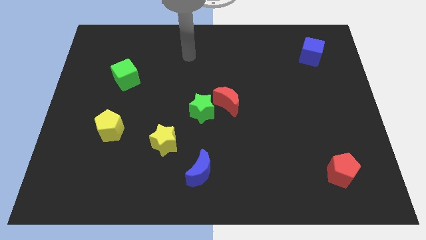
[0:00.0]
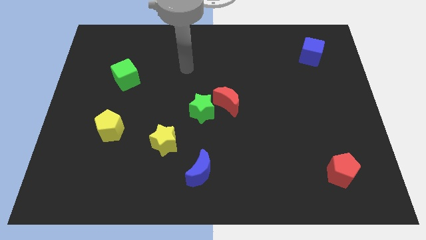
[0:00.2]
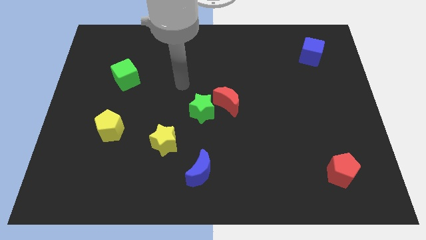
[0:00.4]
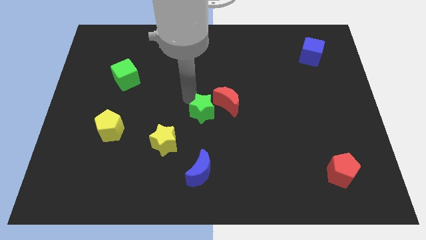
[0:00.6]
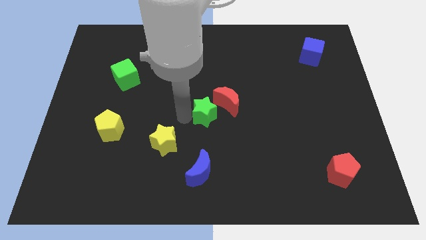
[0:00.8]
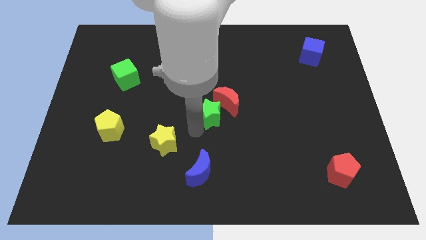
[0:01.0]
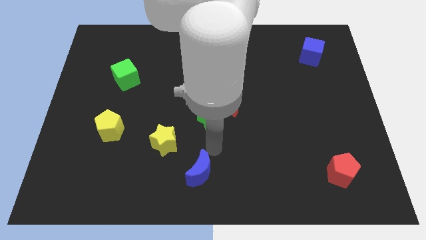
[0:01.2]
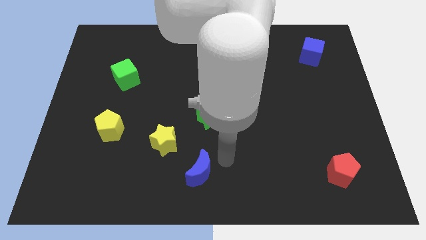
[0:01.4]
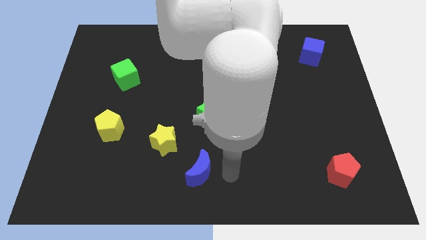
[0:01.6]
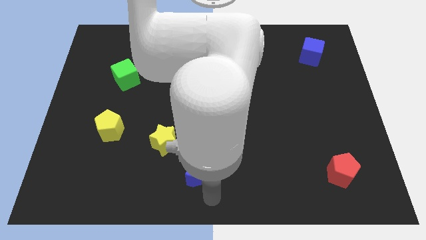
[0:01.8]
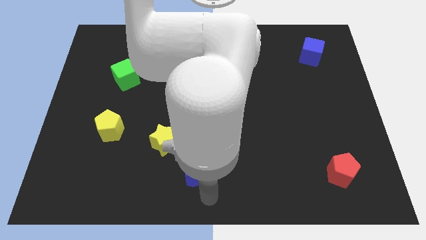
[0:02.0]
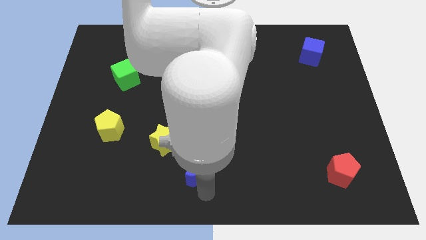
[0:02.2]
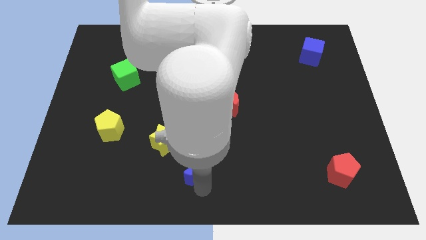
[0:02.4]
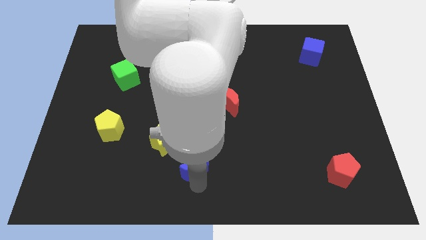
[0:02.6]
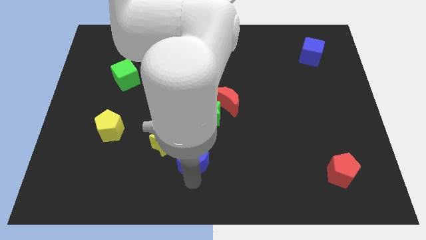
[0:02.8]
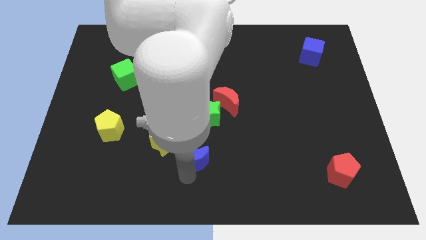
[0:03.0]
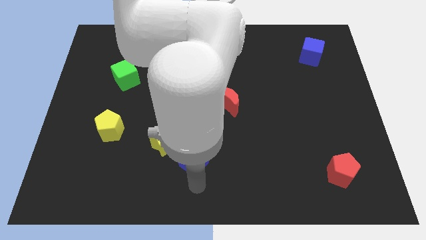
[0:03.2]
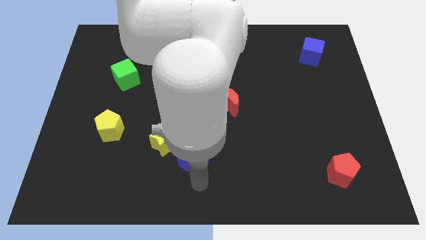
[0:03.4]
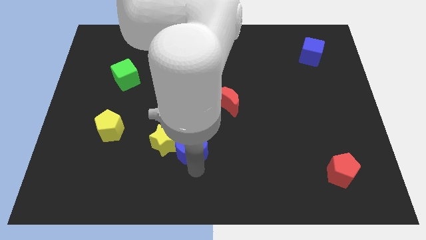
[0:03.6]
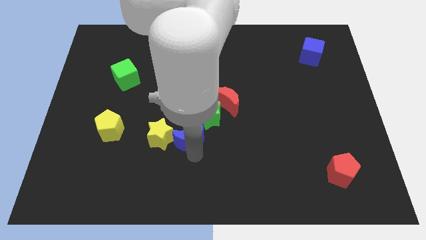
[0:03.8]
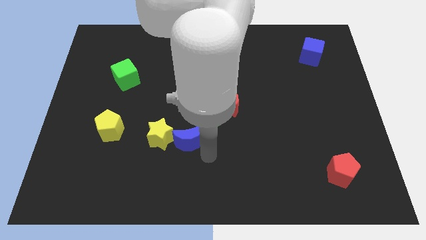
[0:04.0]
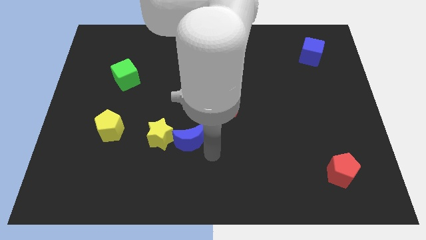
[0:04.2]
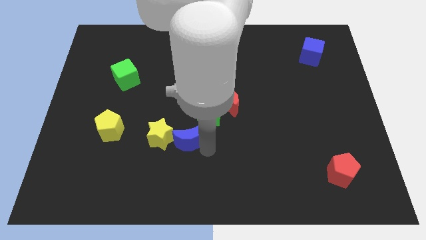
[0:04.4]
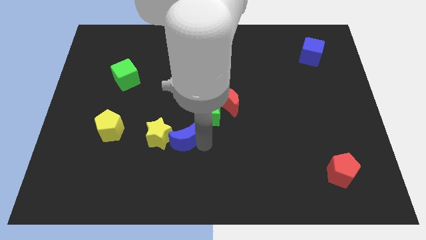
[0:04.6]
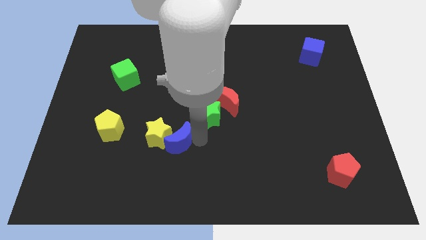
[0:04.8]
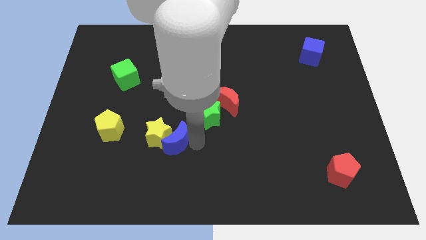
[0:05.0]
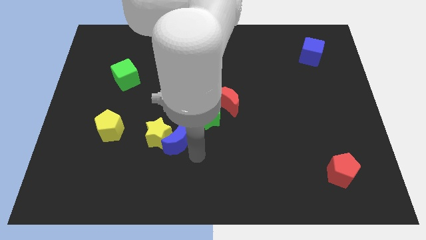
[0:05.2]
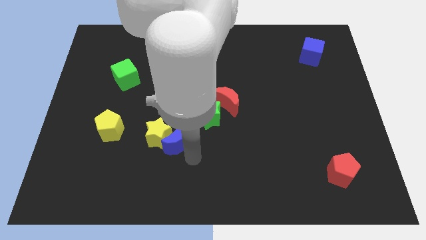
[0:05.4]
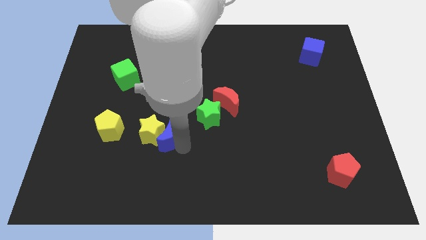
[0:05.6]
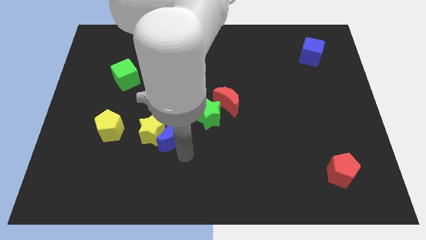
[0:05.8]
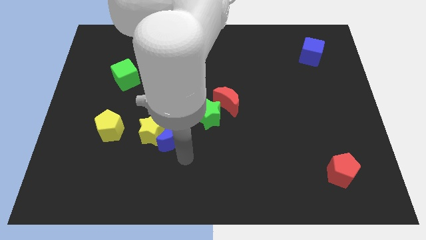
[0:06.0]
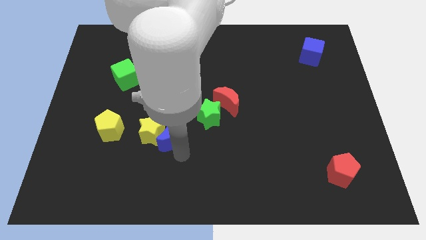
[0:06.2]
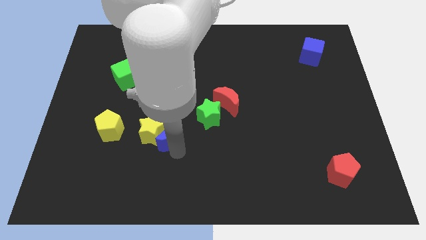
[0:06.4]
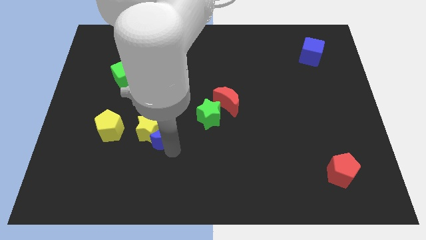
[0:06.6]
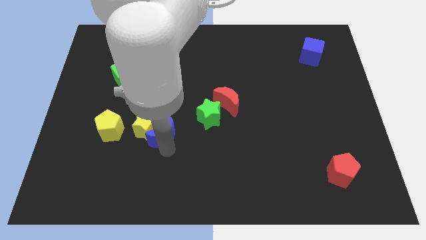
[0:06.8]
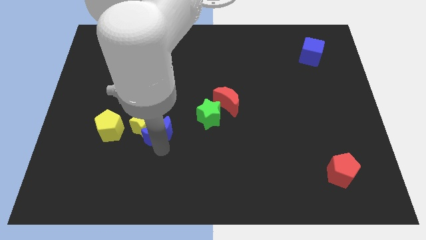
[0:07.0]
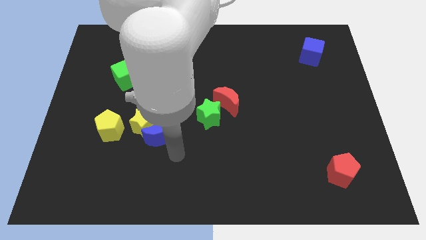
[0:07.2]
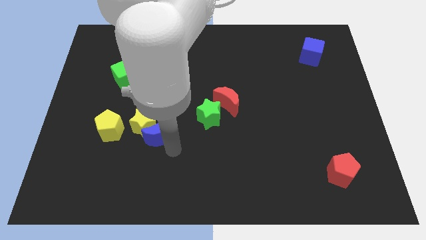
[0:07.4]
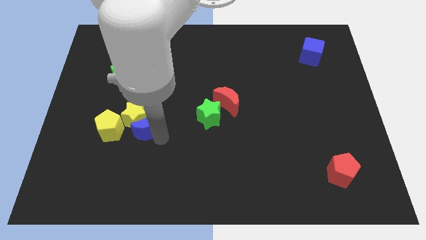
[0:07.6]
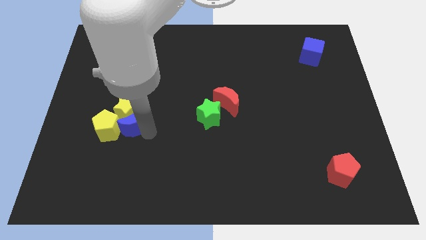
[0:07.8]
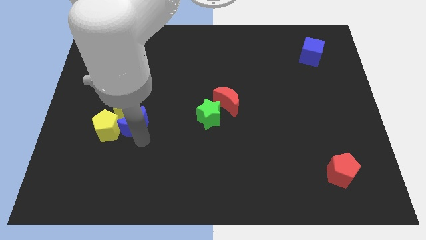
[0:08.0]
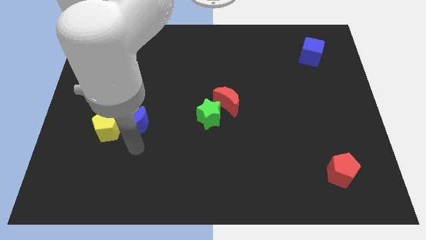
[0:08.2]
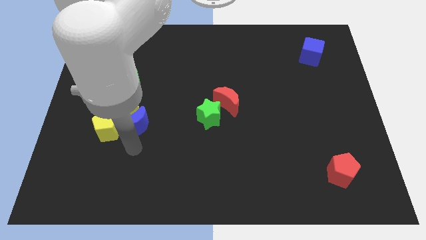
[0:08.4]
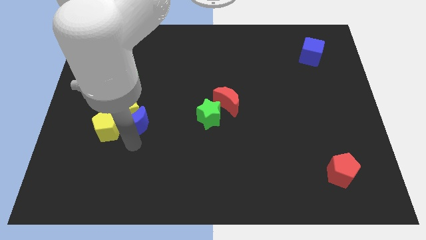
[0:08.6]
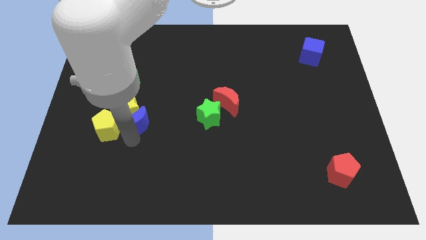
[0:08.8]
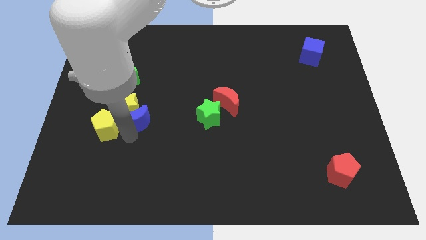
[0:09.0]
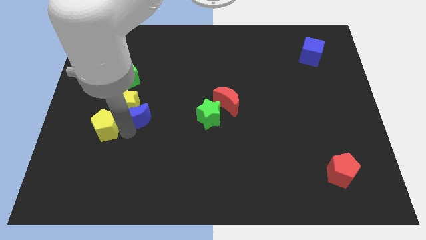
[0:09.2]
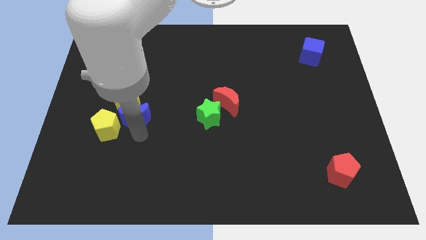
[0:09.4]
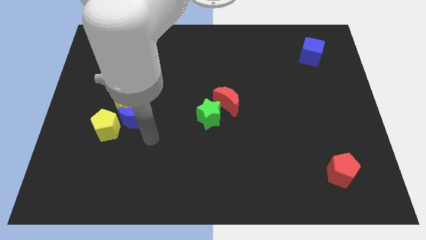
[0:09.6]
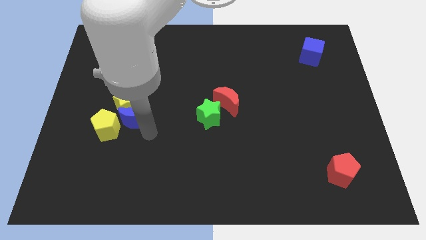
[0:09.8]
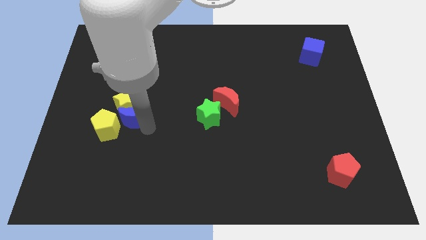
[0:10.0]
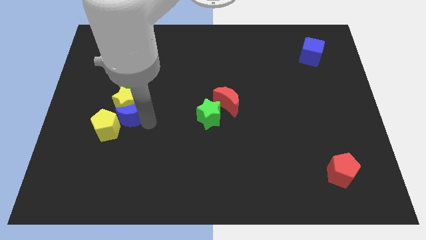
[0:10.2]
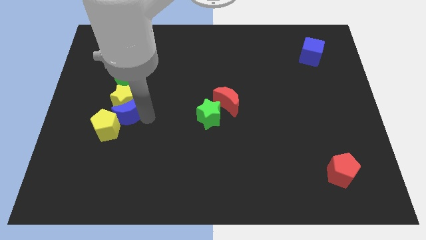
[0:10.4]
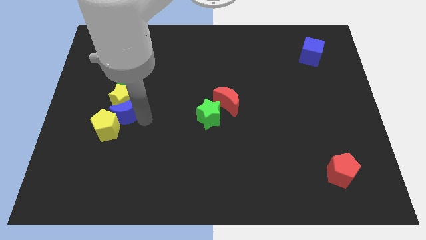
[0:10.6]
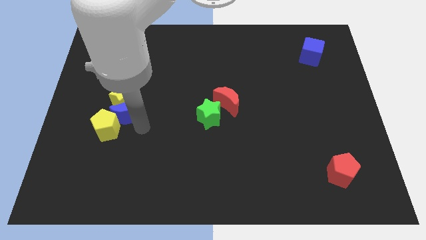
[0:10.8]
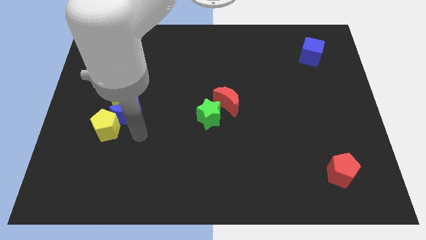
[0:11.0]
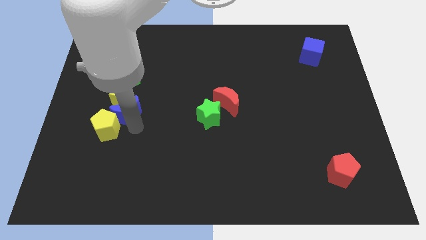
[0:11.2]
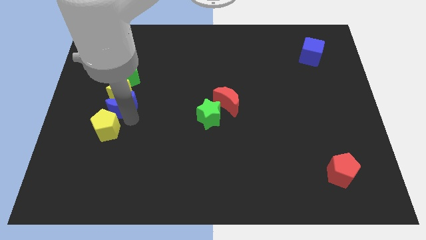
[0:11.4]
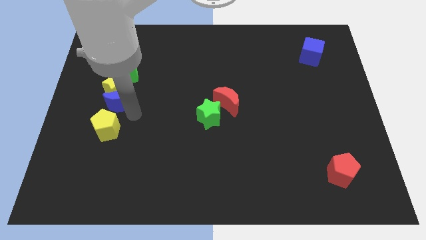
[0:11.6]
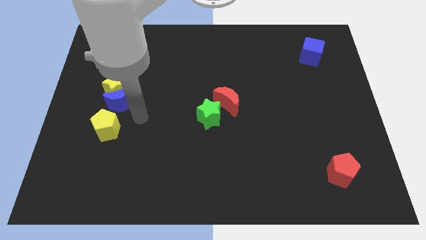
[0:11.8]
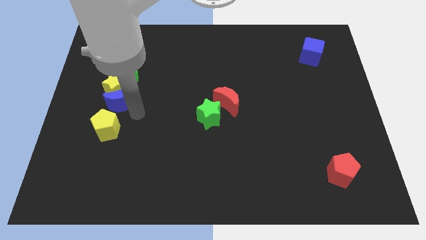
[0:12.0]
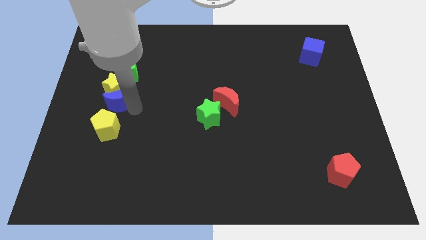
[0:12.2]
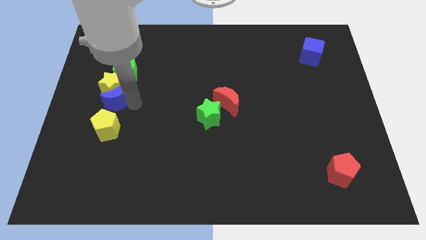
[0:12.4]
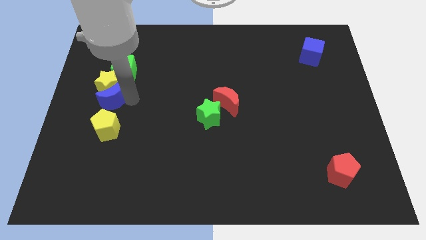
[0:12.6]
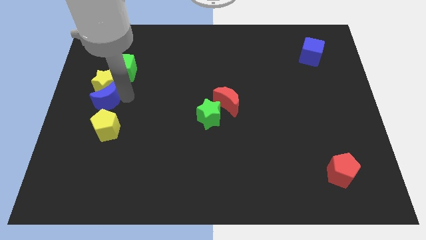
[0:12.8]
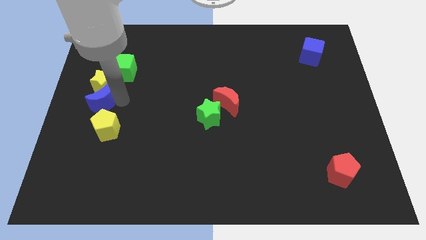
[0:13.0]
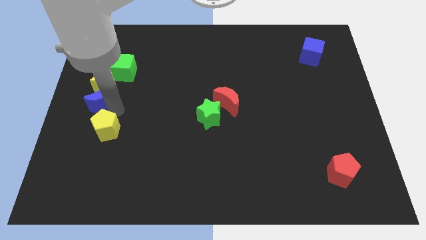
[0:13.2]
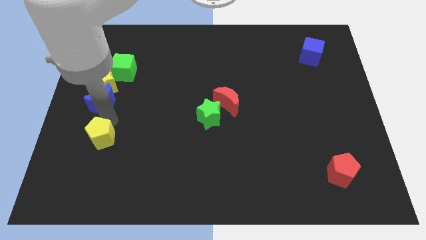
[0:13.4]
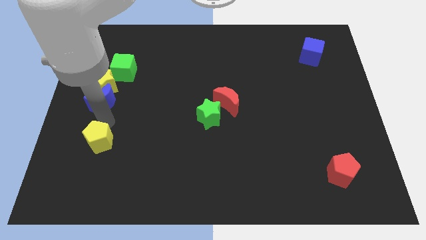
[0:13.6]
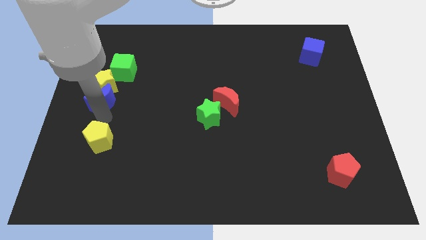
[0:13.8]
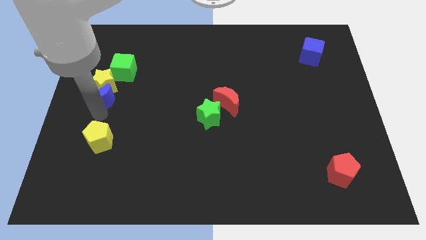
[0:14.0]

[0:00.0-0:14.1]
move the blue moon diagonally down and to the left of the green cube

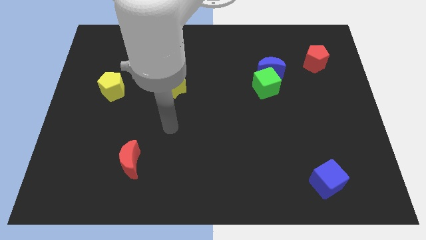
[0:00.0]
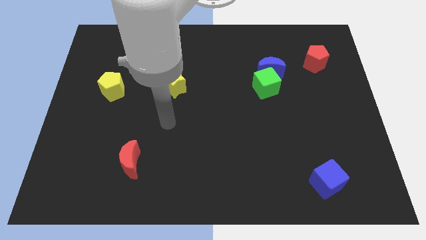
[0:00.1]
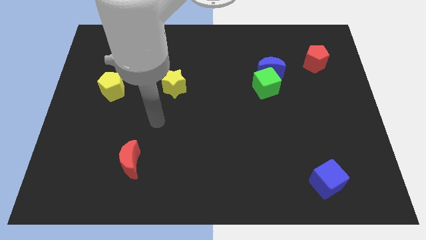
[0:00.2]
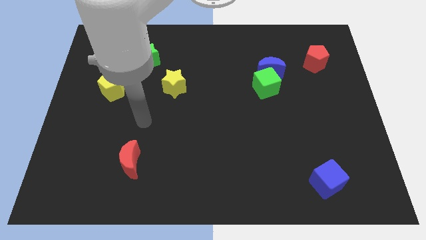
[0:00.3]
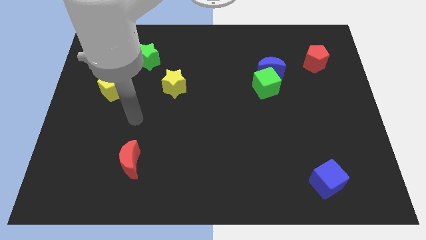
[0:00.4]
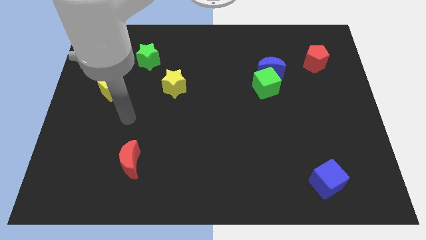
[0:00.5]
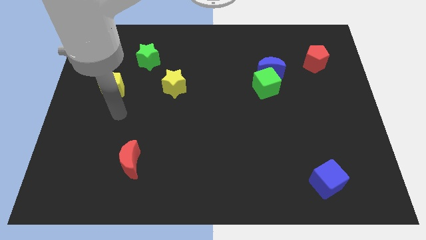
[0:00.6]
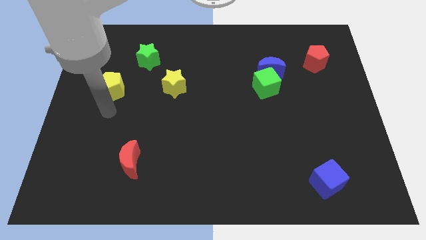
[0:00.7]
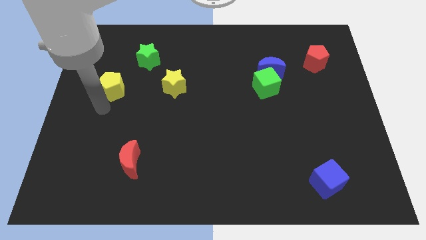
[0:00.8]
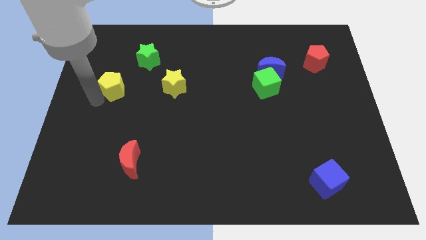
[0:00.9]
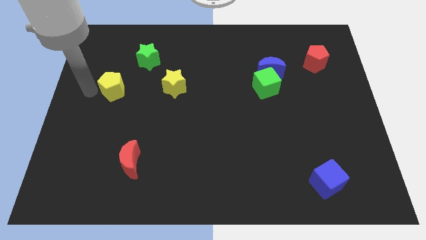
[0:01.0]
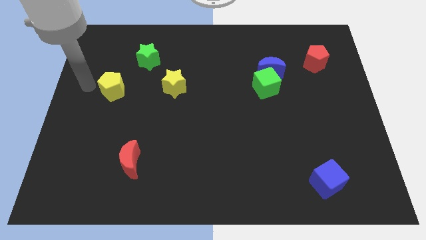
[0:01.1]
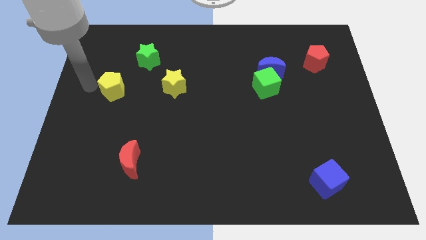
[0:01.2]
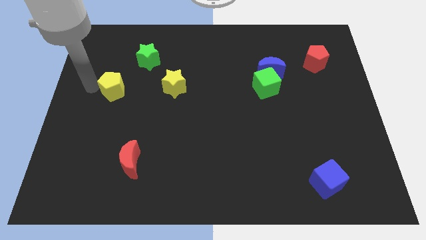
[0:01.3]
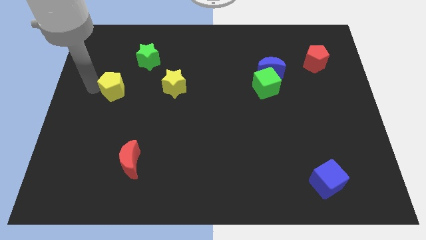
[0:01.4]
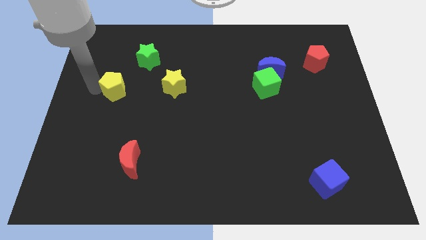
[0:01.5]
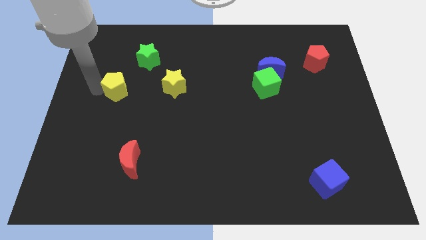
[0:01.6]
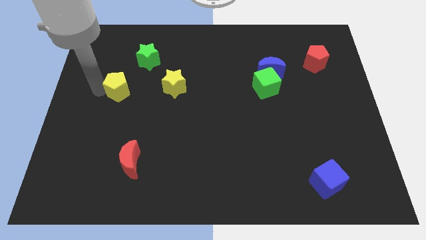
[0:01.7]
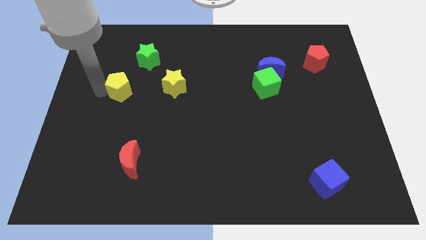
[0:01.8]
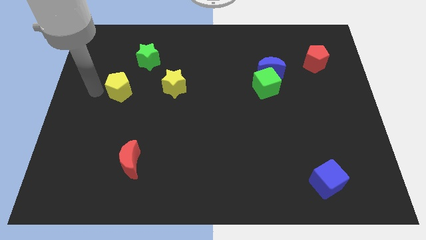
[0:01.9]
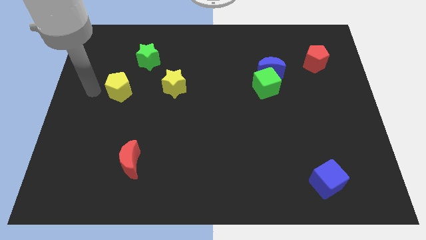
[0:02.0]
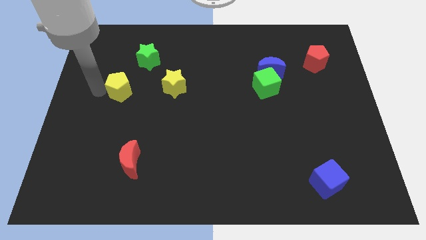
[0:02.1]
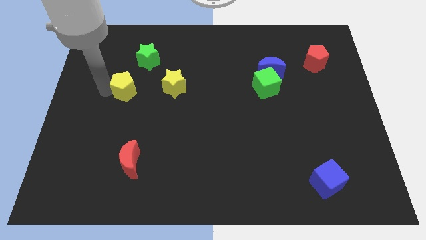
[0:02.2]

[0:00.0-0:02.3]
push the yellow pentagon to the bottom of the green star
